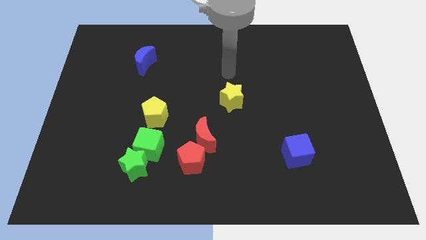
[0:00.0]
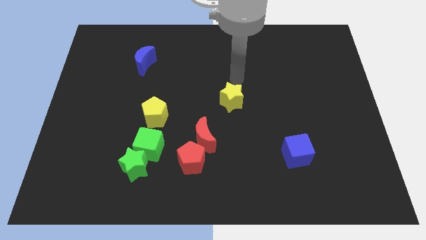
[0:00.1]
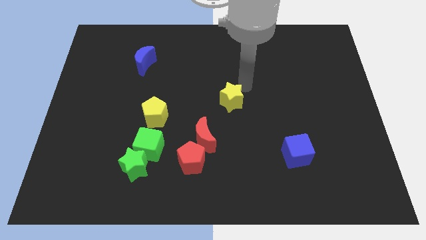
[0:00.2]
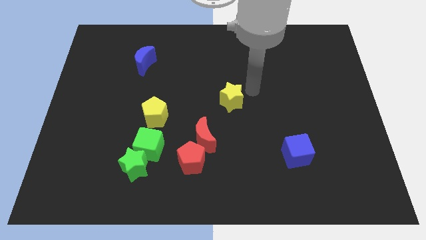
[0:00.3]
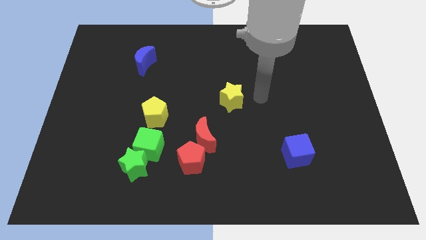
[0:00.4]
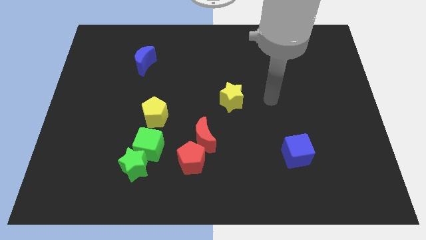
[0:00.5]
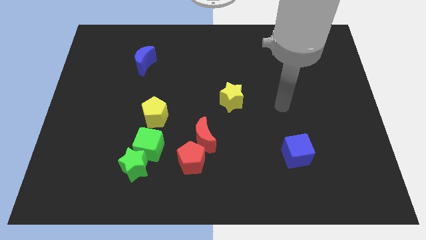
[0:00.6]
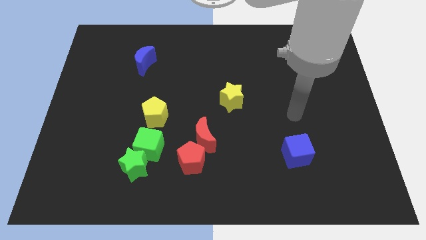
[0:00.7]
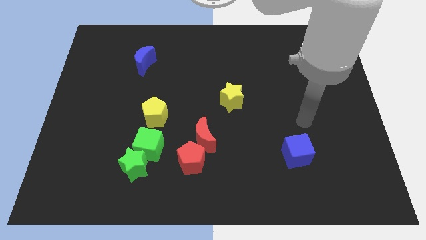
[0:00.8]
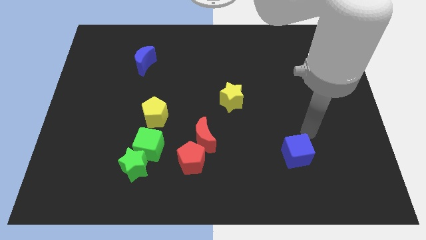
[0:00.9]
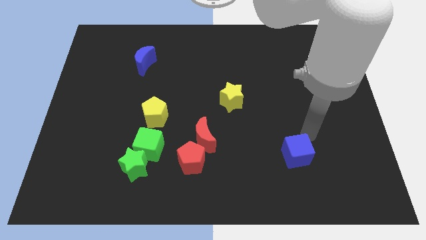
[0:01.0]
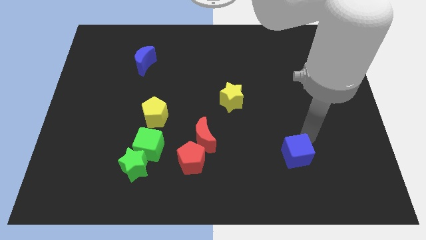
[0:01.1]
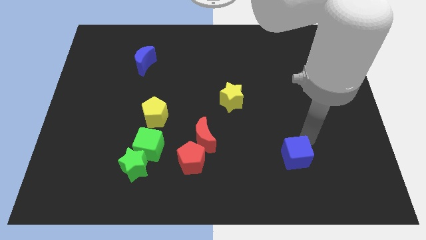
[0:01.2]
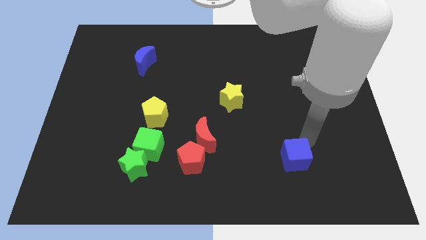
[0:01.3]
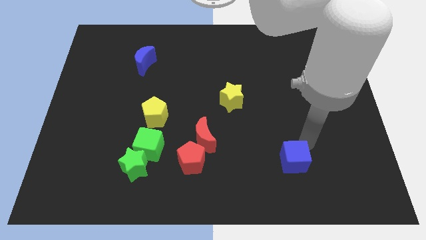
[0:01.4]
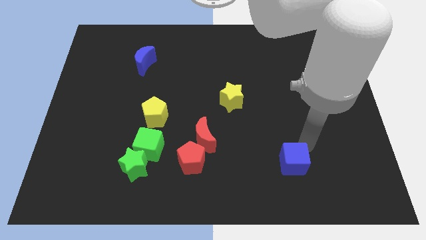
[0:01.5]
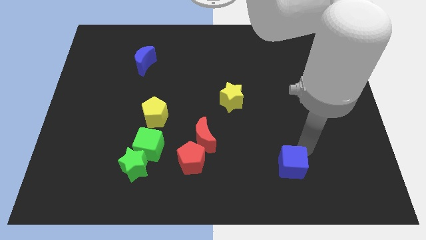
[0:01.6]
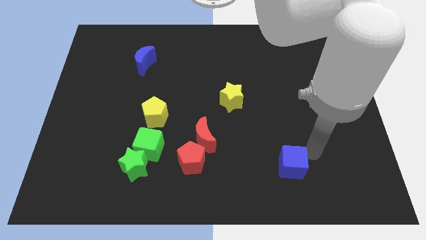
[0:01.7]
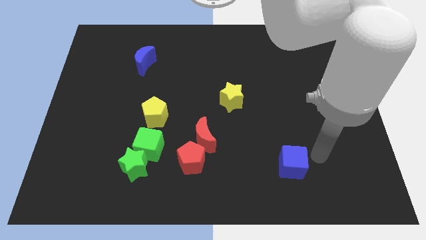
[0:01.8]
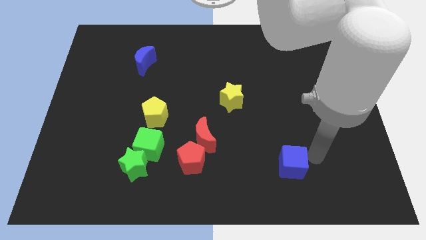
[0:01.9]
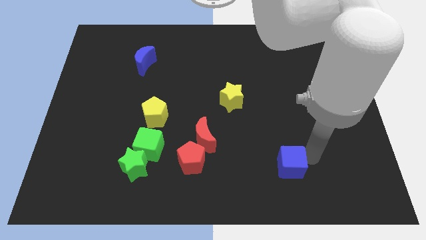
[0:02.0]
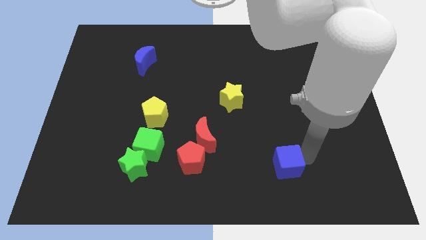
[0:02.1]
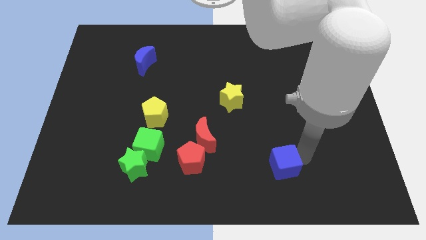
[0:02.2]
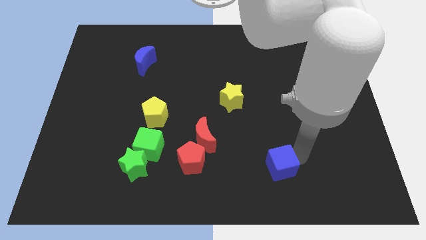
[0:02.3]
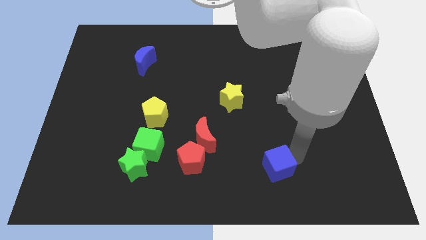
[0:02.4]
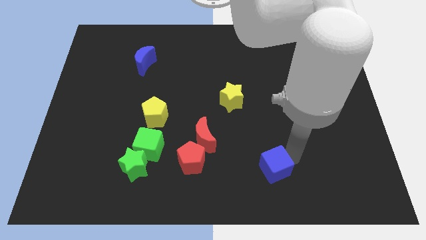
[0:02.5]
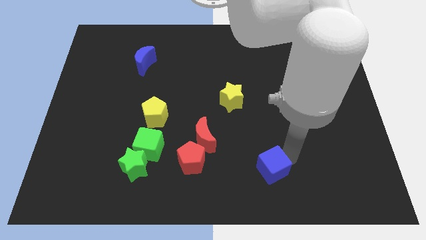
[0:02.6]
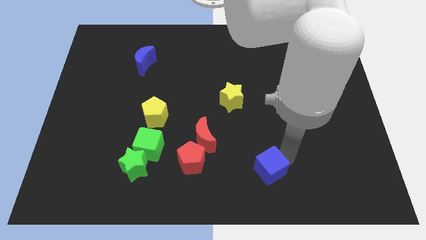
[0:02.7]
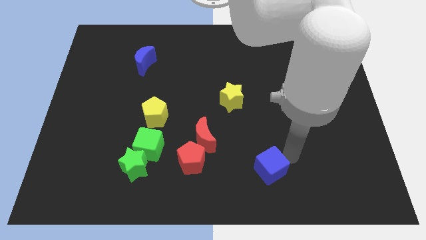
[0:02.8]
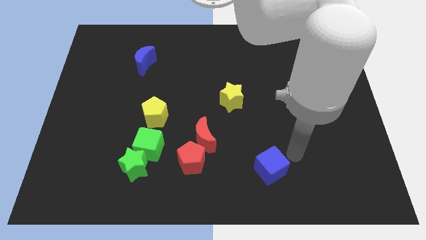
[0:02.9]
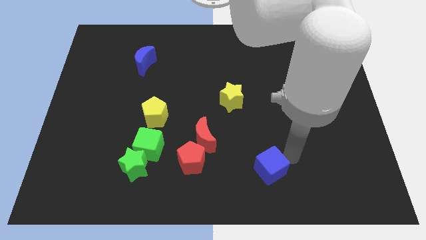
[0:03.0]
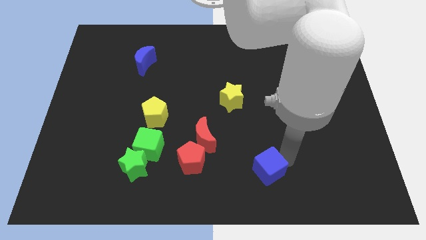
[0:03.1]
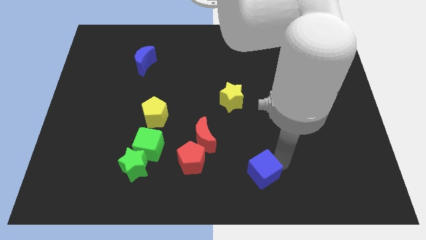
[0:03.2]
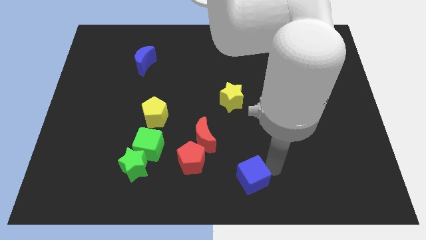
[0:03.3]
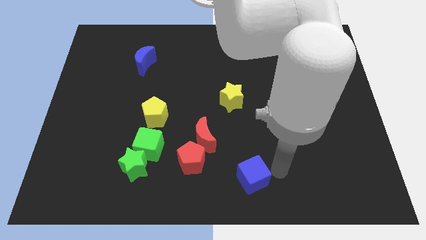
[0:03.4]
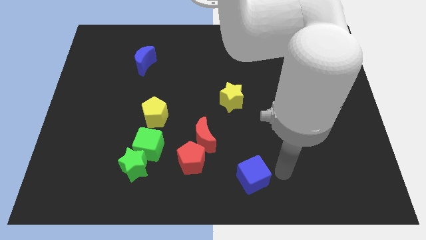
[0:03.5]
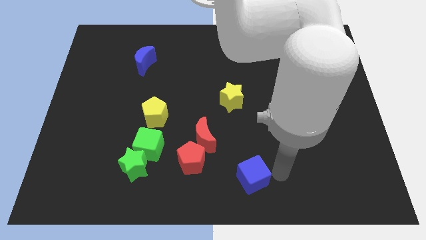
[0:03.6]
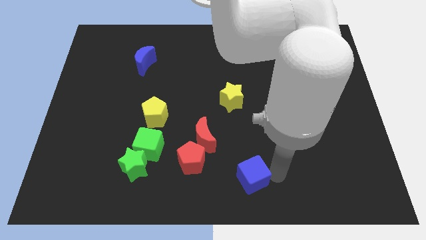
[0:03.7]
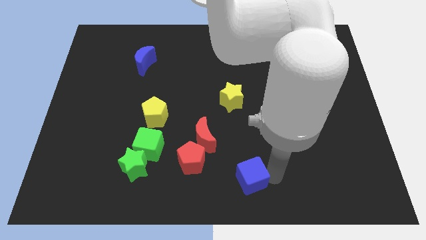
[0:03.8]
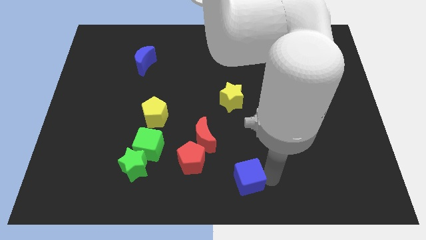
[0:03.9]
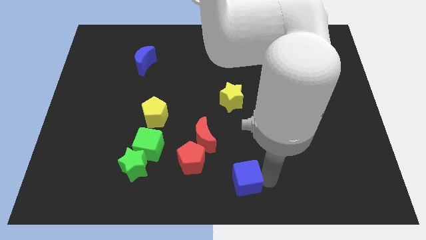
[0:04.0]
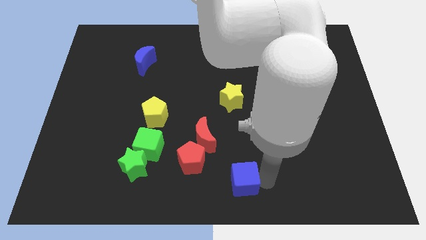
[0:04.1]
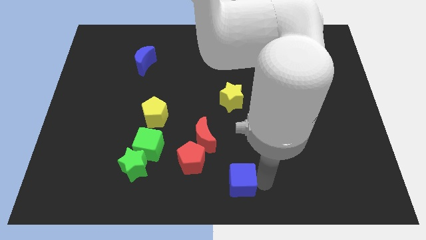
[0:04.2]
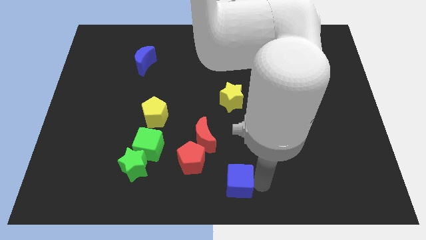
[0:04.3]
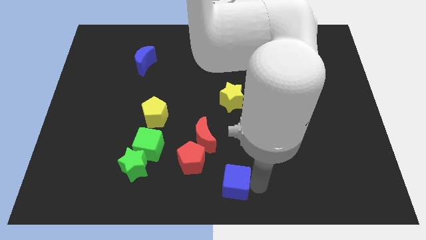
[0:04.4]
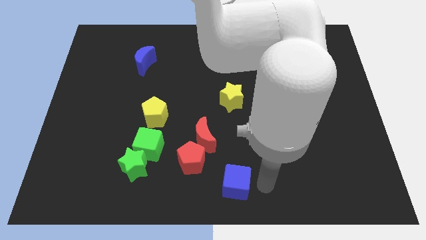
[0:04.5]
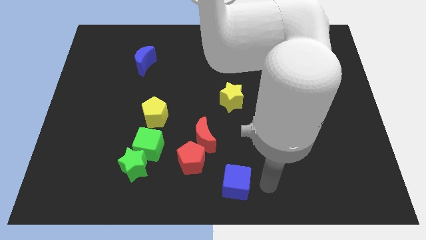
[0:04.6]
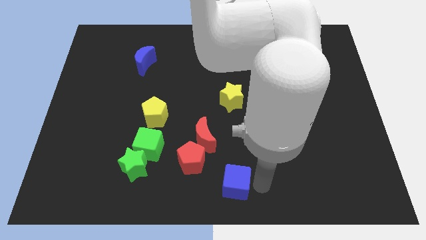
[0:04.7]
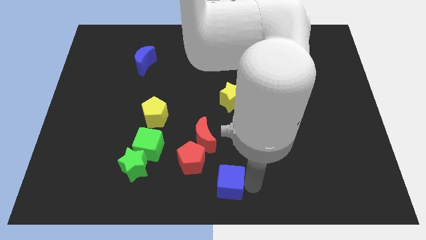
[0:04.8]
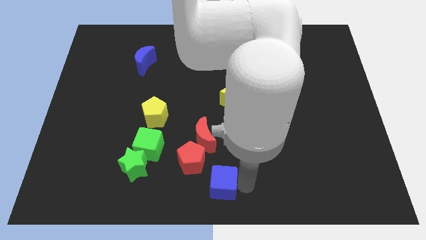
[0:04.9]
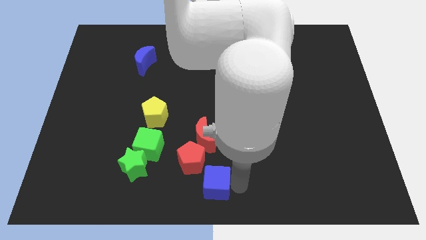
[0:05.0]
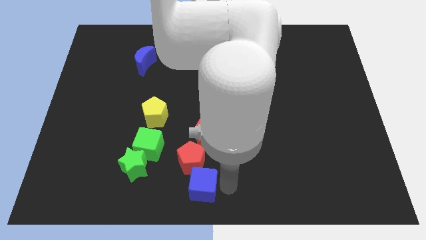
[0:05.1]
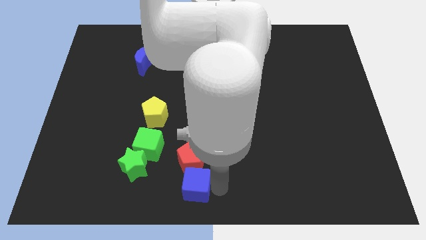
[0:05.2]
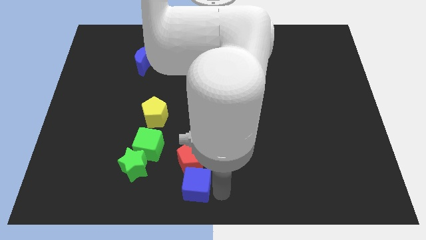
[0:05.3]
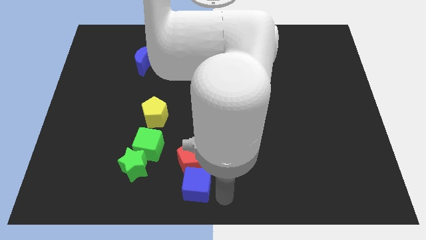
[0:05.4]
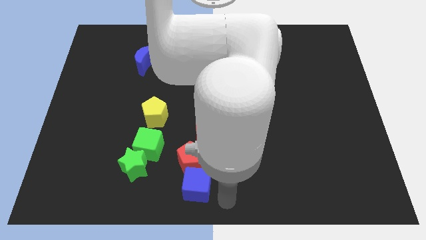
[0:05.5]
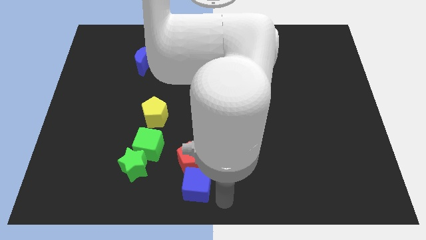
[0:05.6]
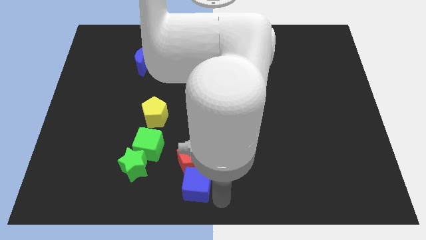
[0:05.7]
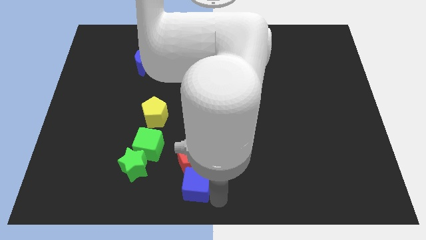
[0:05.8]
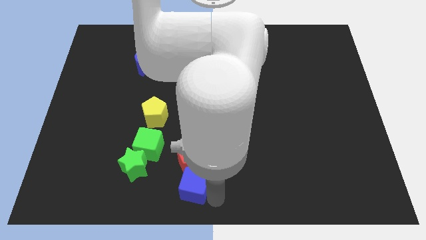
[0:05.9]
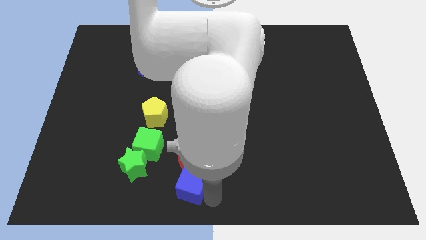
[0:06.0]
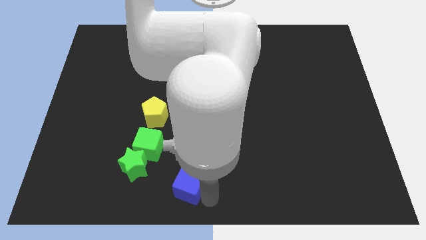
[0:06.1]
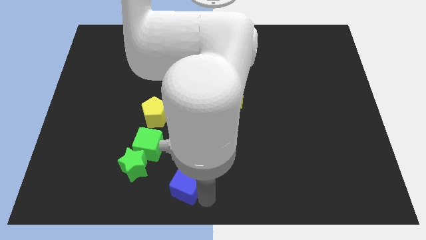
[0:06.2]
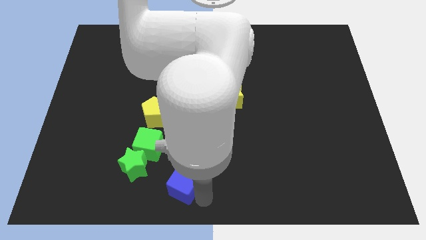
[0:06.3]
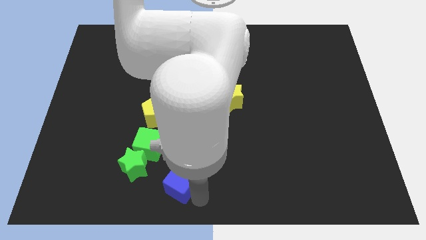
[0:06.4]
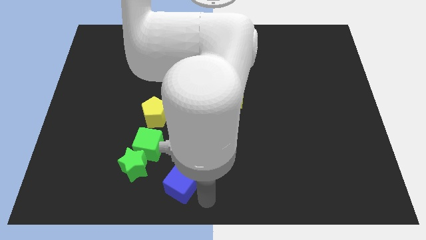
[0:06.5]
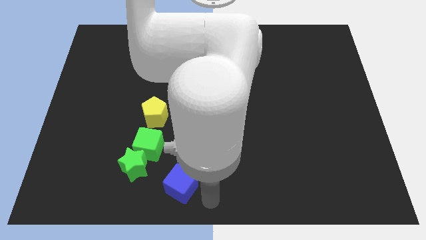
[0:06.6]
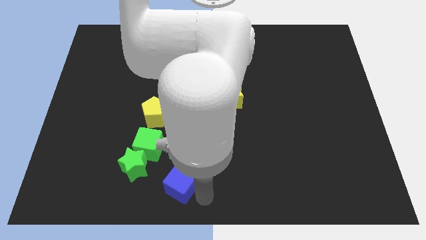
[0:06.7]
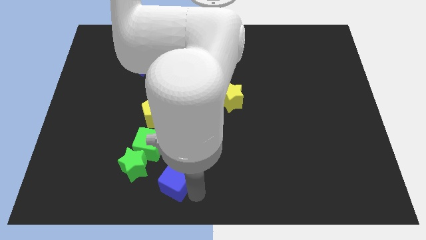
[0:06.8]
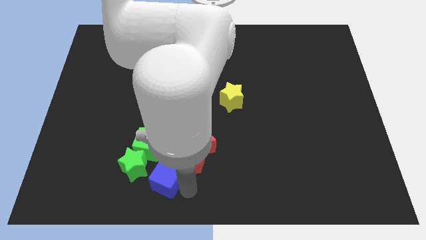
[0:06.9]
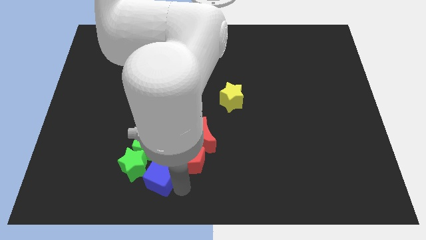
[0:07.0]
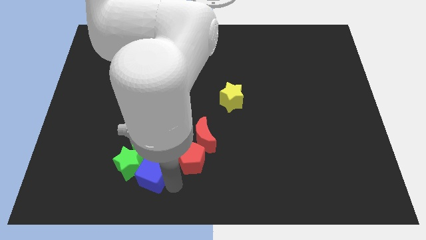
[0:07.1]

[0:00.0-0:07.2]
move the blue cube next to the green star
